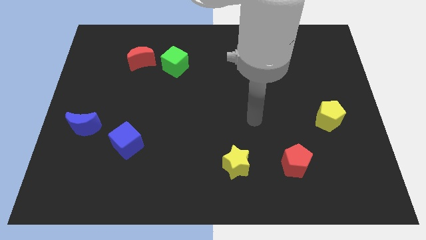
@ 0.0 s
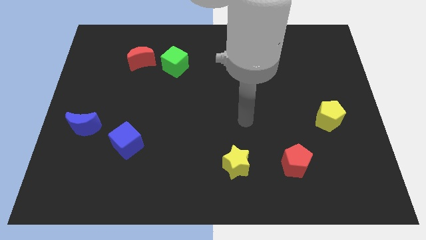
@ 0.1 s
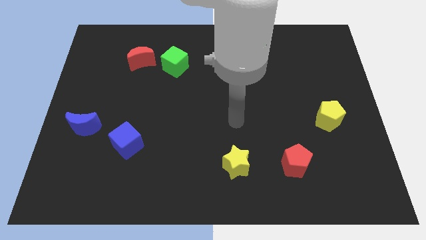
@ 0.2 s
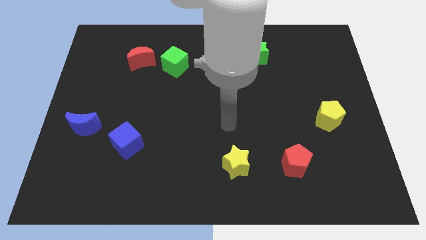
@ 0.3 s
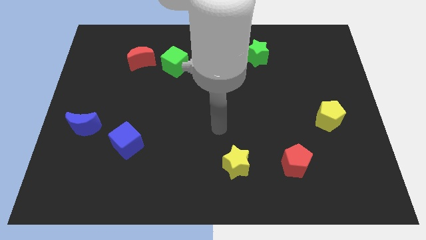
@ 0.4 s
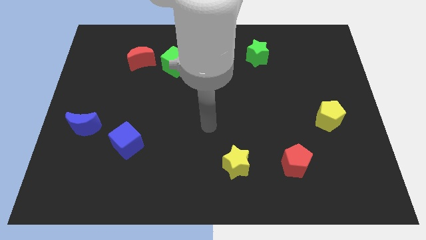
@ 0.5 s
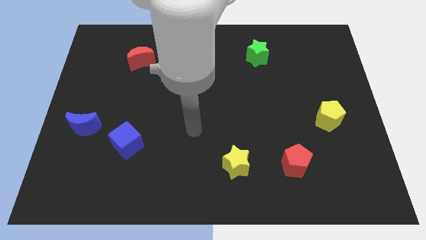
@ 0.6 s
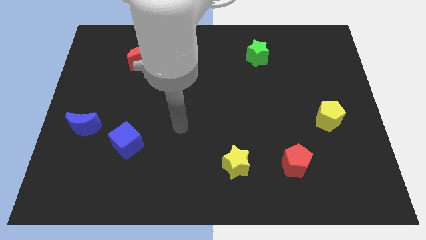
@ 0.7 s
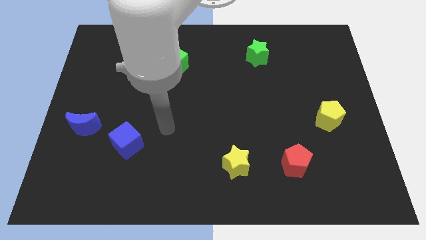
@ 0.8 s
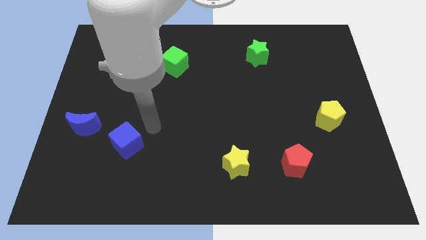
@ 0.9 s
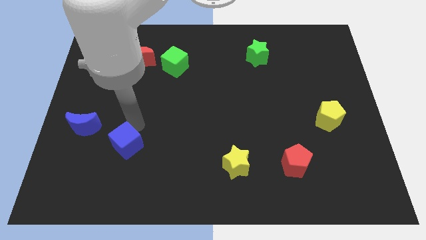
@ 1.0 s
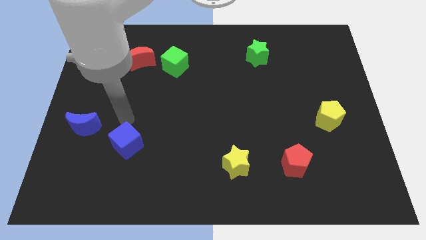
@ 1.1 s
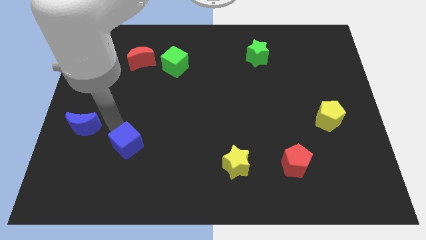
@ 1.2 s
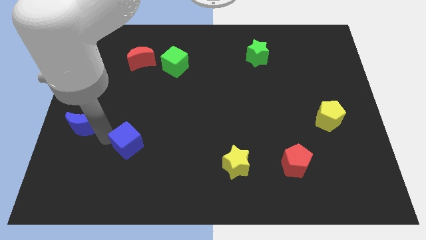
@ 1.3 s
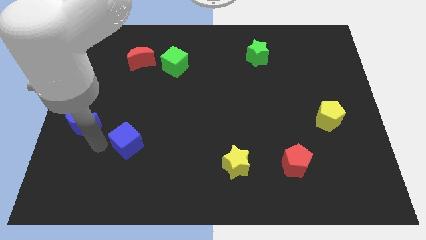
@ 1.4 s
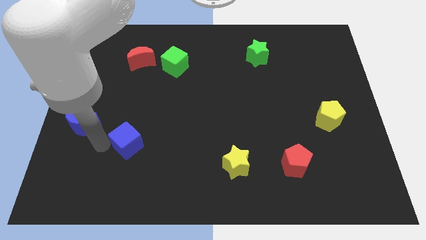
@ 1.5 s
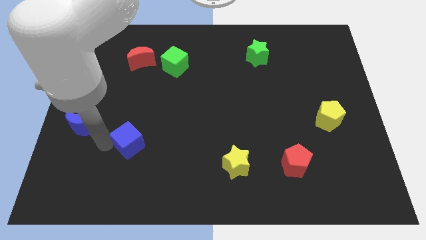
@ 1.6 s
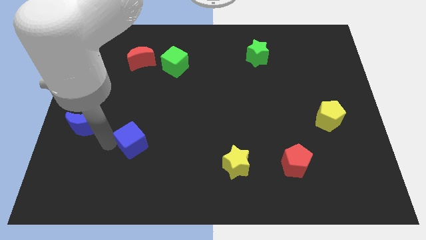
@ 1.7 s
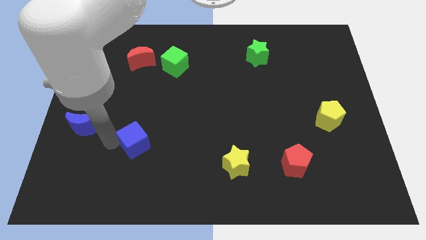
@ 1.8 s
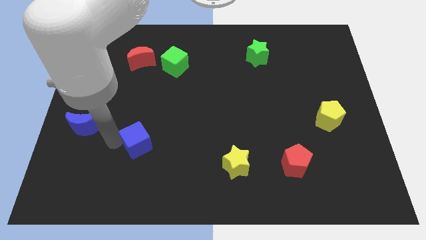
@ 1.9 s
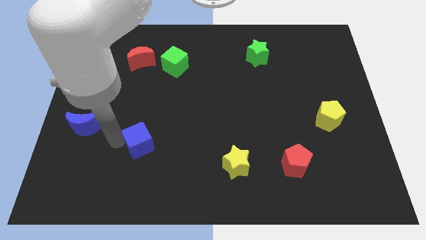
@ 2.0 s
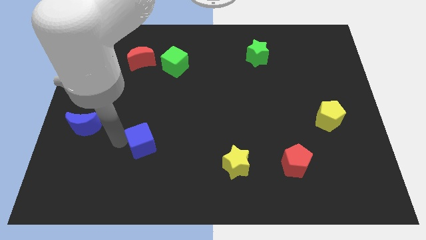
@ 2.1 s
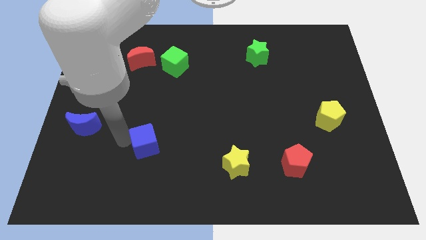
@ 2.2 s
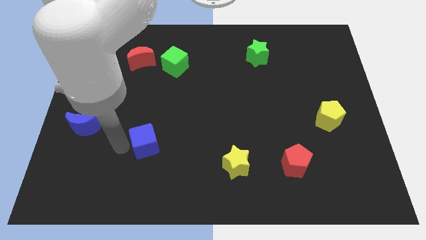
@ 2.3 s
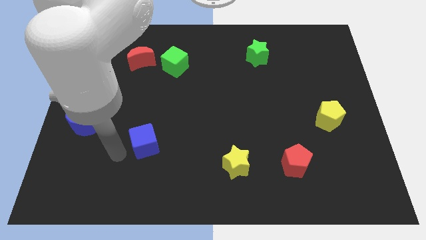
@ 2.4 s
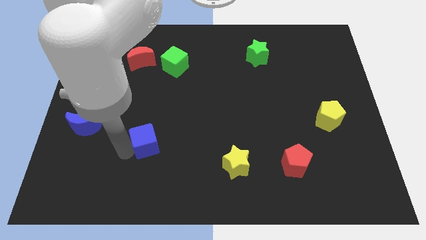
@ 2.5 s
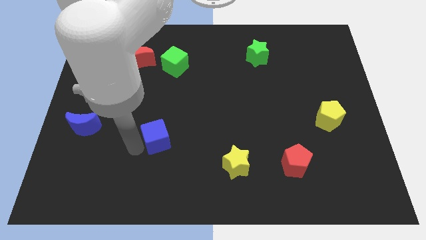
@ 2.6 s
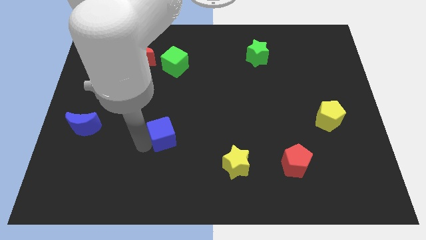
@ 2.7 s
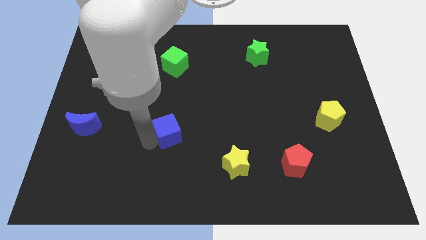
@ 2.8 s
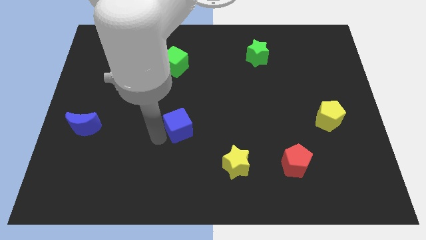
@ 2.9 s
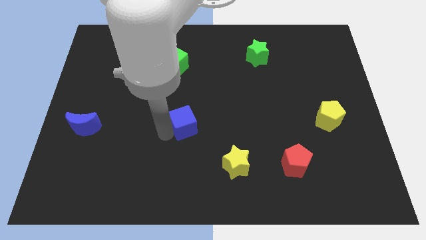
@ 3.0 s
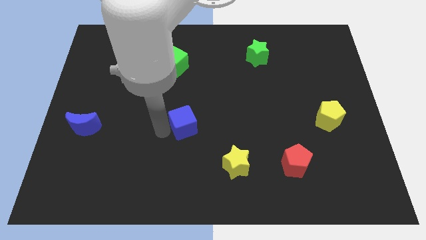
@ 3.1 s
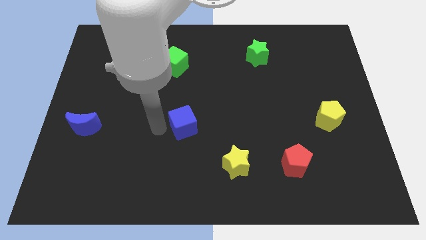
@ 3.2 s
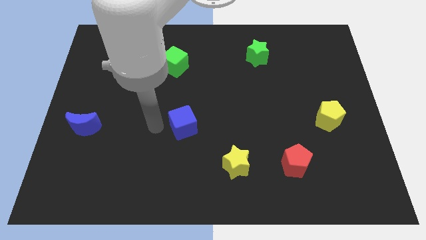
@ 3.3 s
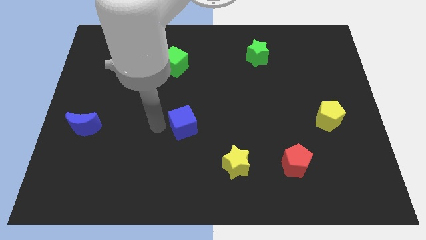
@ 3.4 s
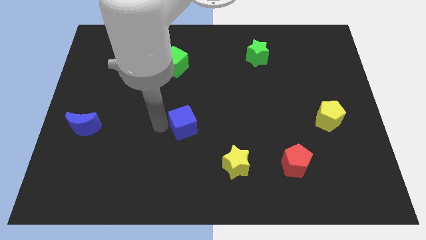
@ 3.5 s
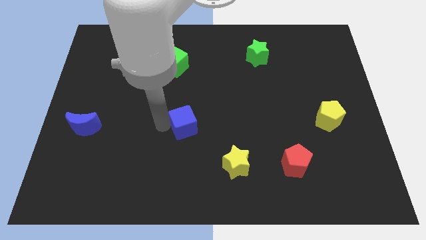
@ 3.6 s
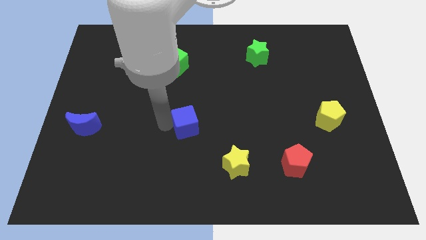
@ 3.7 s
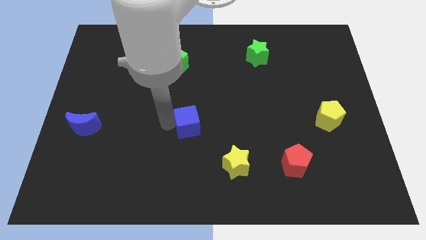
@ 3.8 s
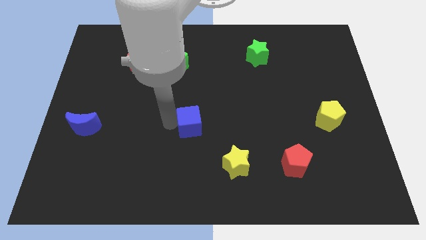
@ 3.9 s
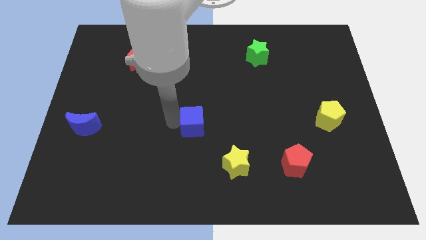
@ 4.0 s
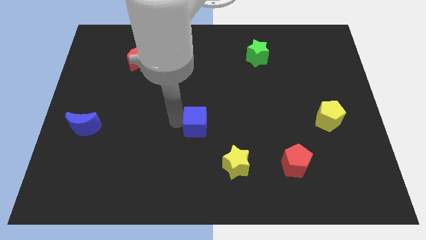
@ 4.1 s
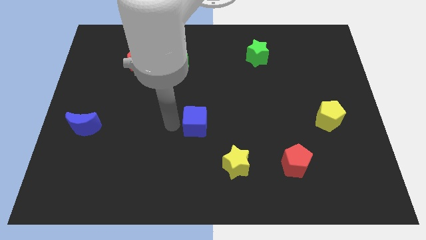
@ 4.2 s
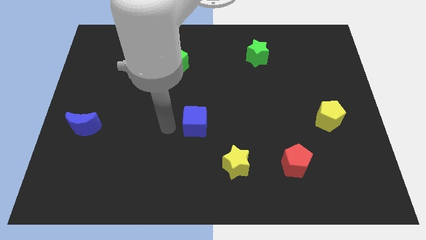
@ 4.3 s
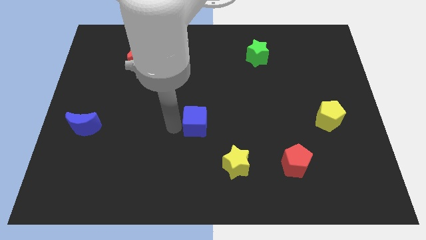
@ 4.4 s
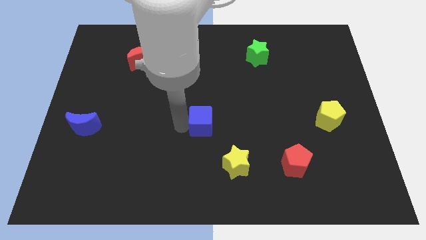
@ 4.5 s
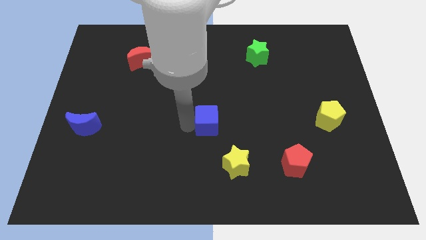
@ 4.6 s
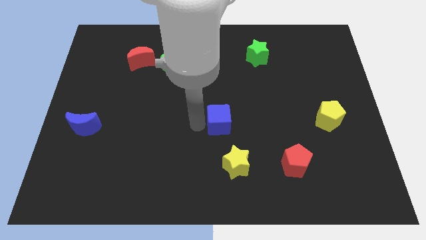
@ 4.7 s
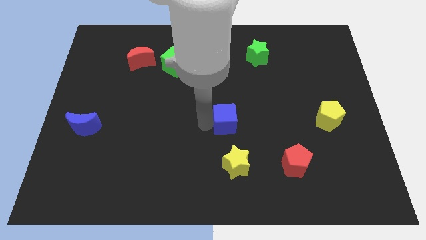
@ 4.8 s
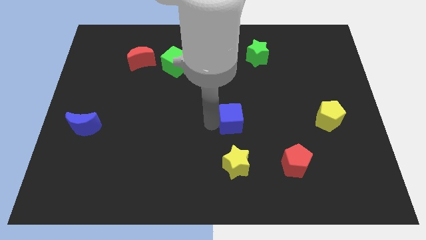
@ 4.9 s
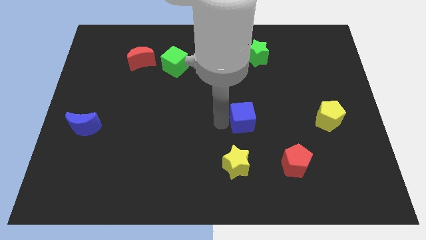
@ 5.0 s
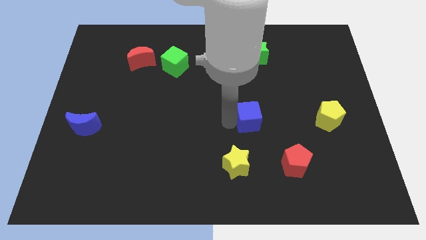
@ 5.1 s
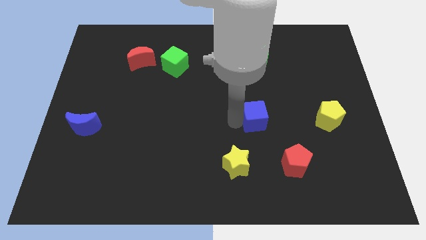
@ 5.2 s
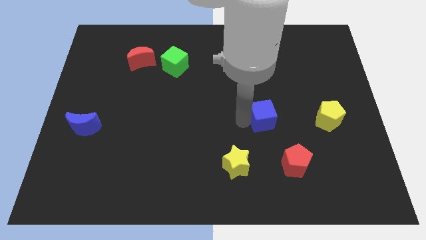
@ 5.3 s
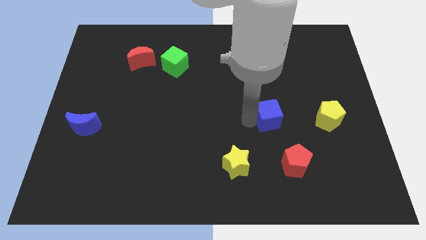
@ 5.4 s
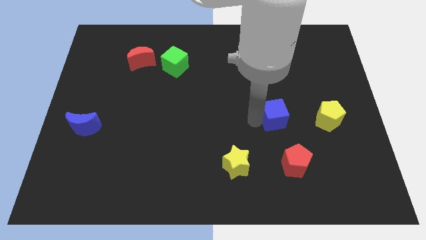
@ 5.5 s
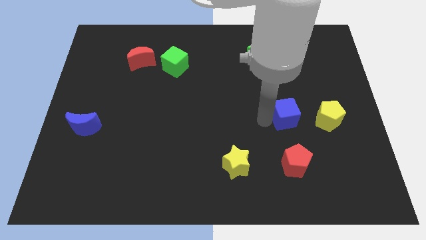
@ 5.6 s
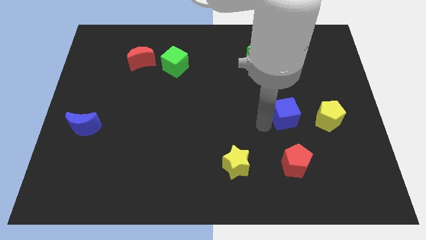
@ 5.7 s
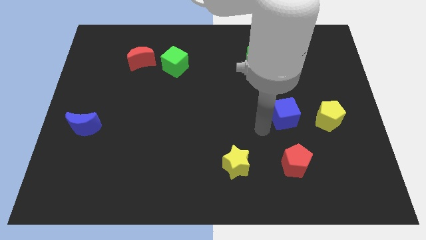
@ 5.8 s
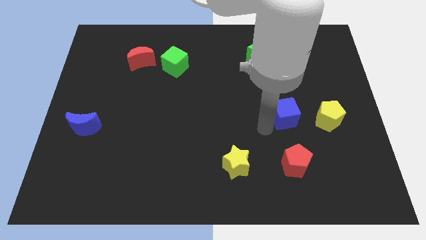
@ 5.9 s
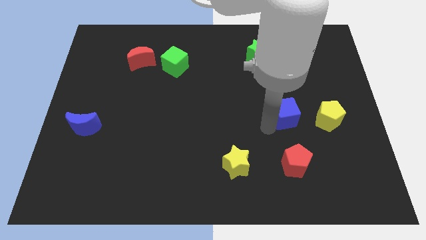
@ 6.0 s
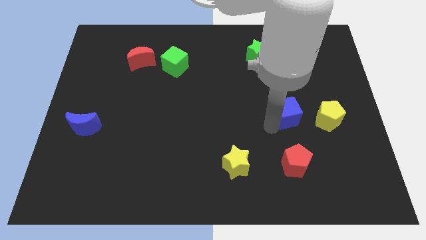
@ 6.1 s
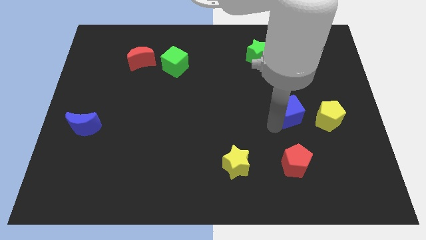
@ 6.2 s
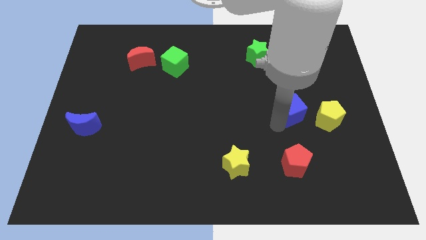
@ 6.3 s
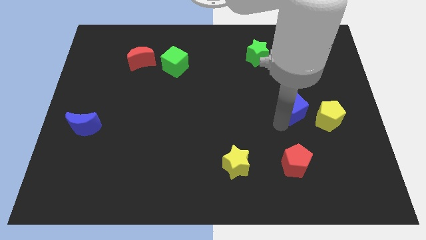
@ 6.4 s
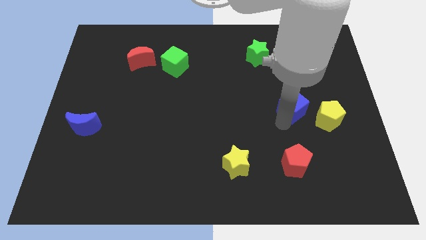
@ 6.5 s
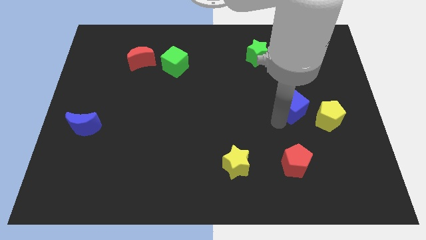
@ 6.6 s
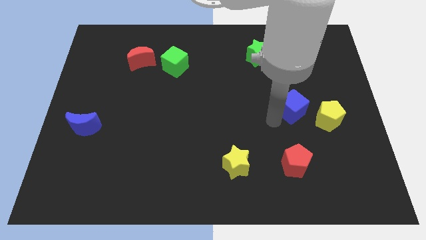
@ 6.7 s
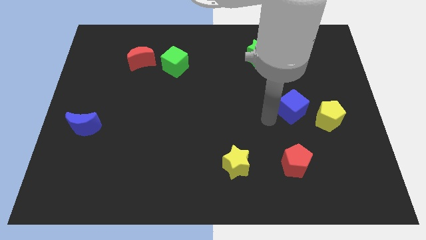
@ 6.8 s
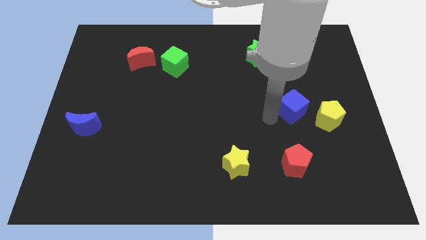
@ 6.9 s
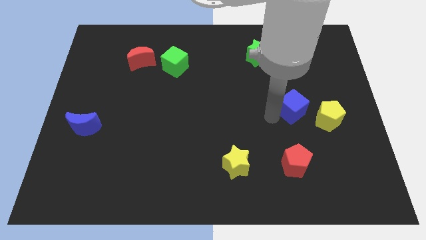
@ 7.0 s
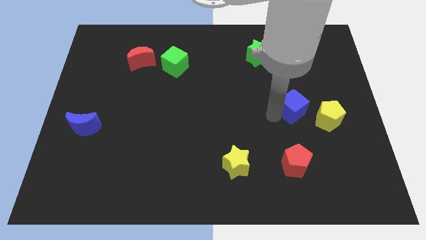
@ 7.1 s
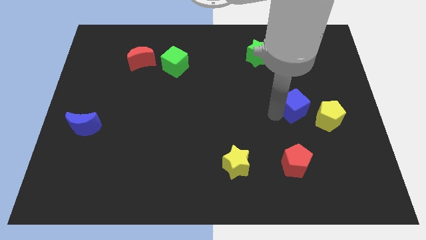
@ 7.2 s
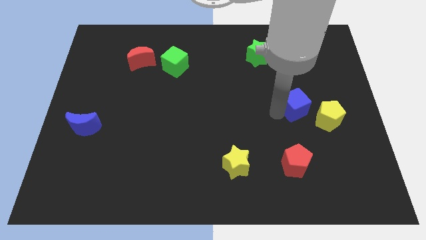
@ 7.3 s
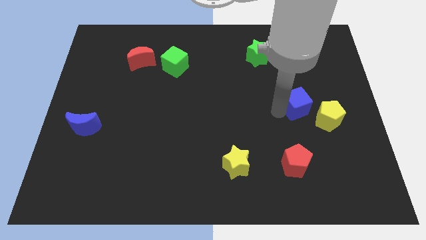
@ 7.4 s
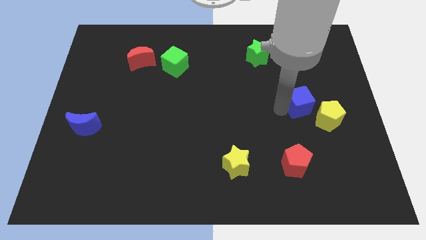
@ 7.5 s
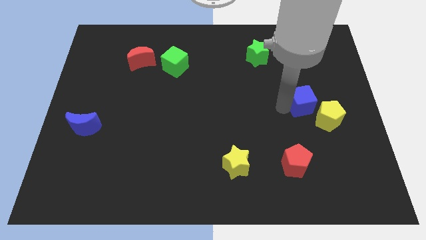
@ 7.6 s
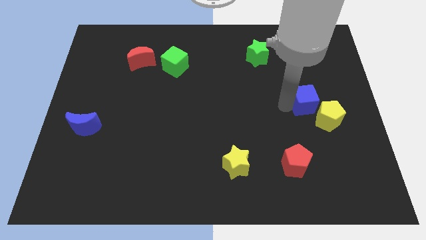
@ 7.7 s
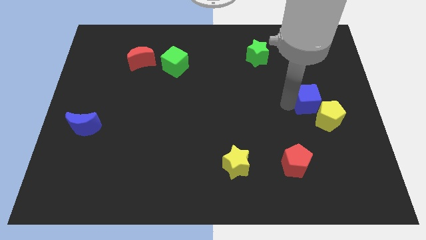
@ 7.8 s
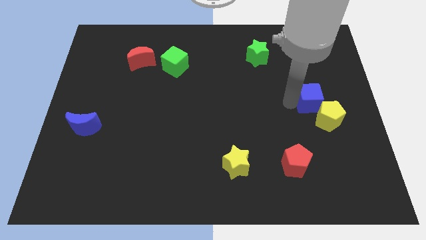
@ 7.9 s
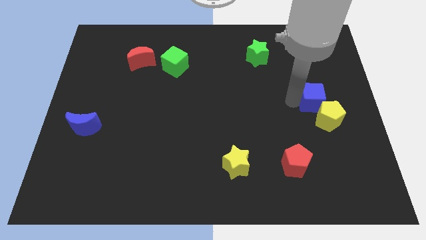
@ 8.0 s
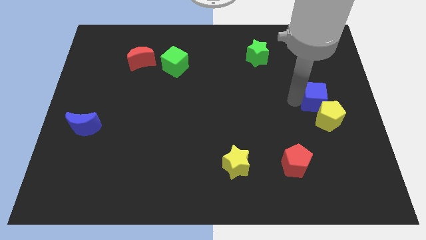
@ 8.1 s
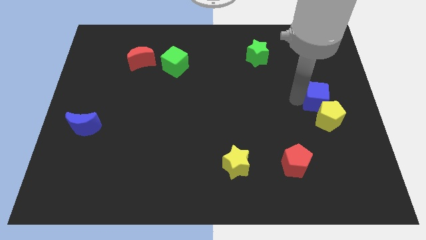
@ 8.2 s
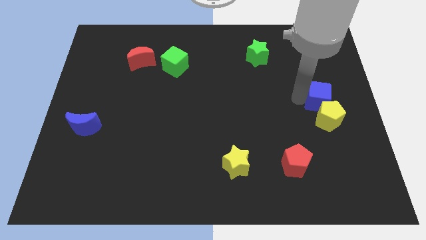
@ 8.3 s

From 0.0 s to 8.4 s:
put the blue cube to the center right
